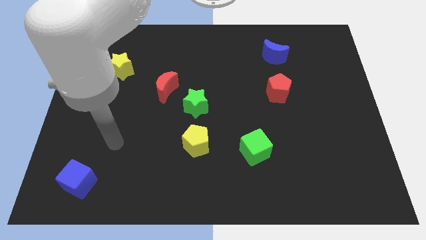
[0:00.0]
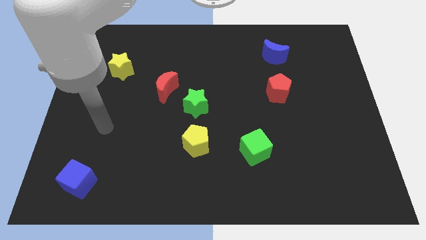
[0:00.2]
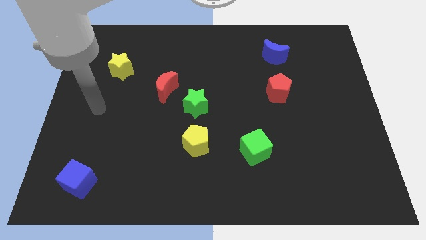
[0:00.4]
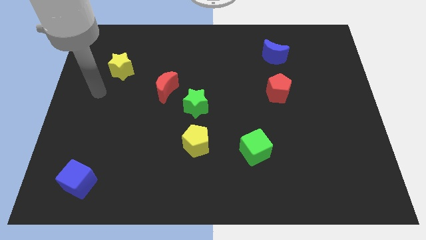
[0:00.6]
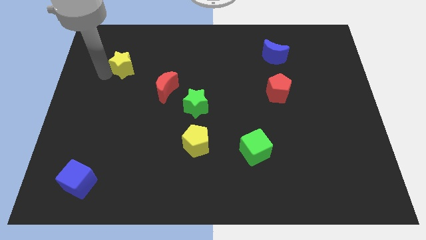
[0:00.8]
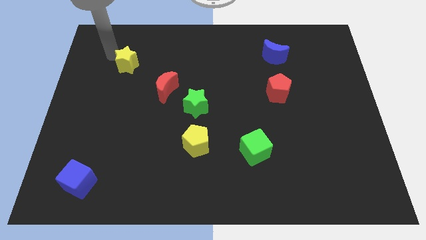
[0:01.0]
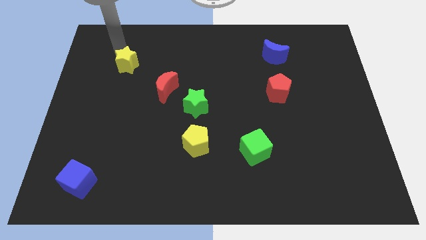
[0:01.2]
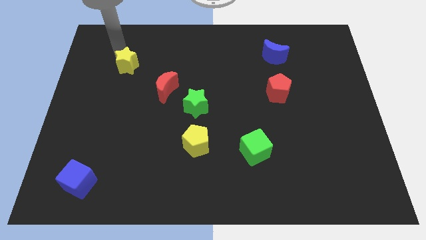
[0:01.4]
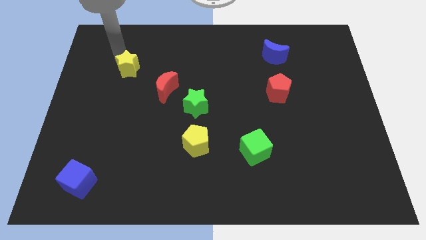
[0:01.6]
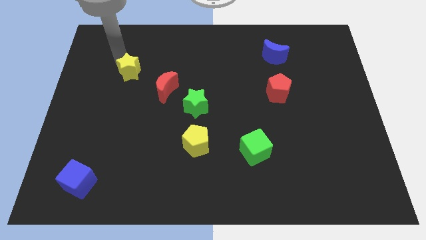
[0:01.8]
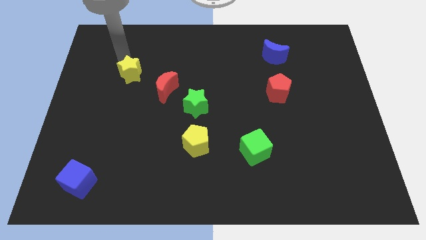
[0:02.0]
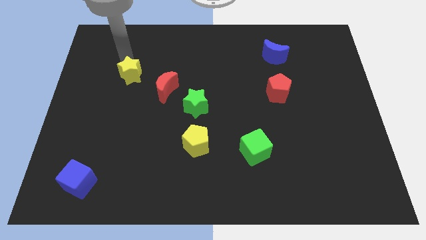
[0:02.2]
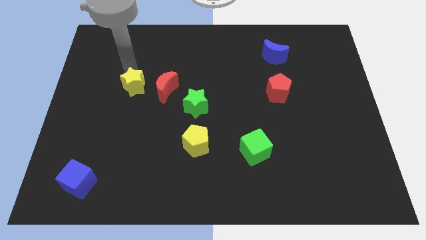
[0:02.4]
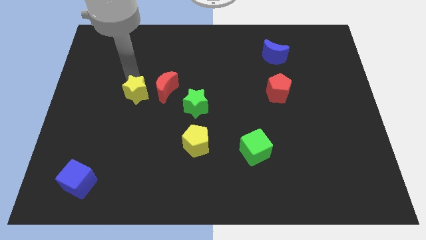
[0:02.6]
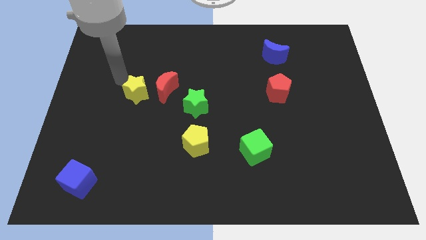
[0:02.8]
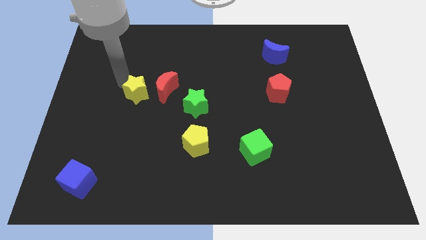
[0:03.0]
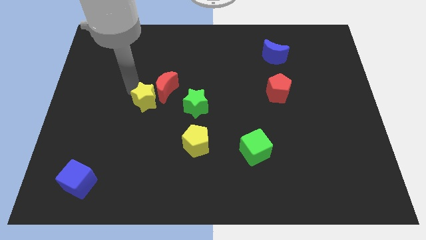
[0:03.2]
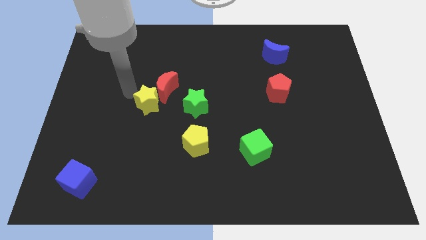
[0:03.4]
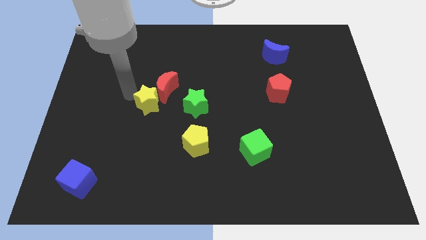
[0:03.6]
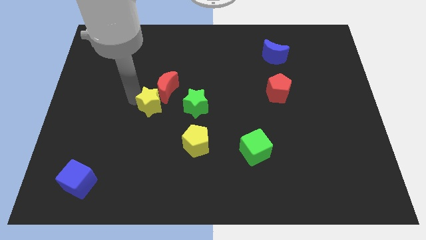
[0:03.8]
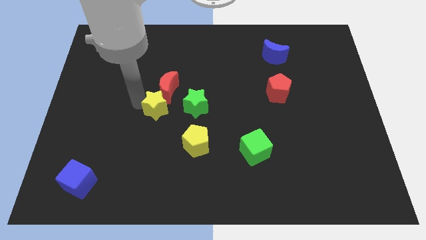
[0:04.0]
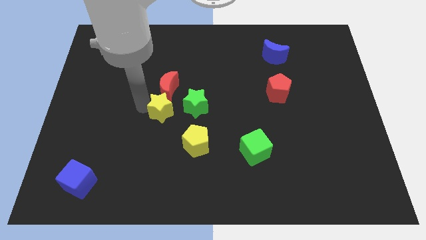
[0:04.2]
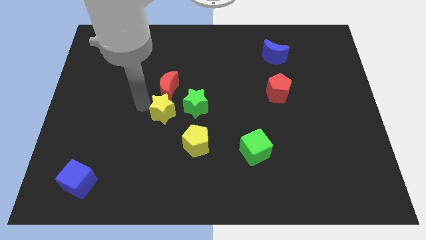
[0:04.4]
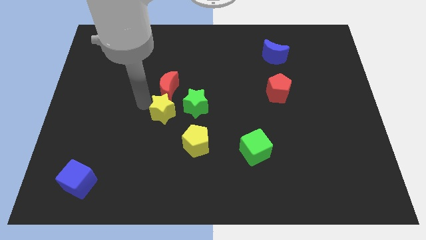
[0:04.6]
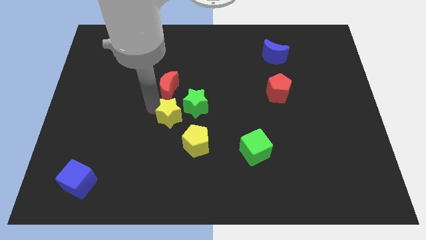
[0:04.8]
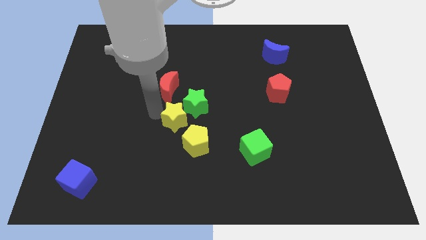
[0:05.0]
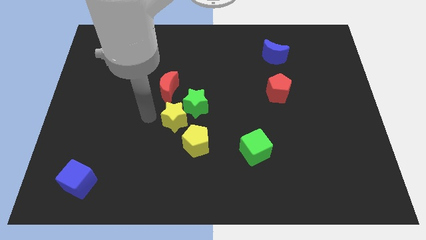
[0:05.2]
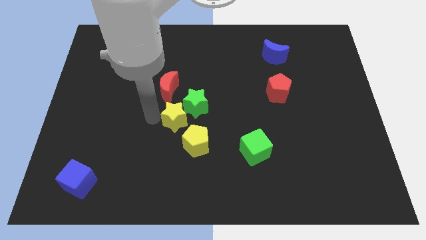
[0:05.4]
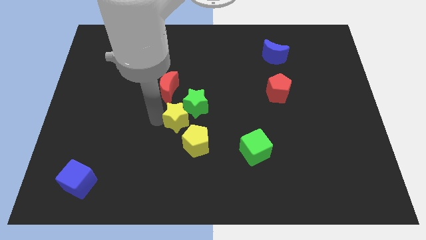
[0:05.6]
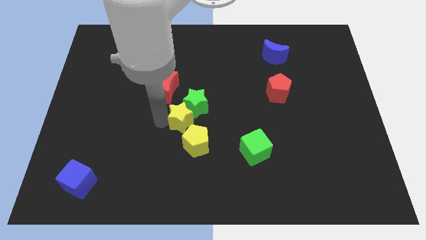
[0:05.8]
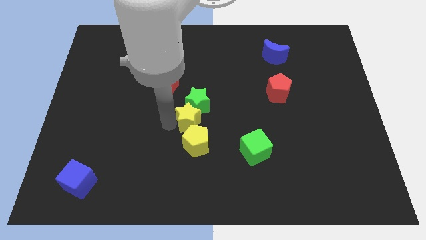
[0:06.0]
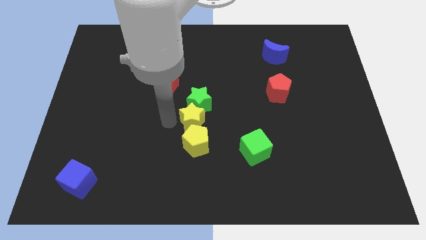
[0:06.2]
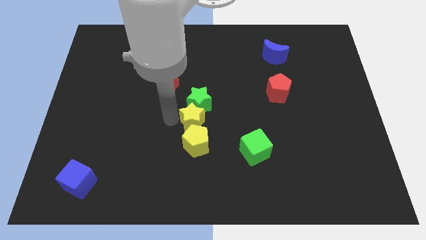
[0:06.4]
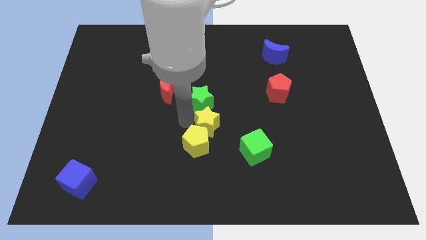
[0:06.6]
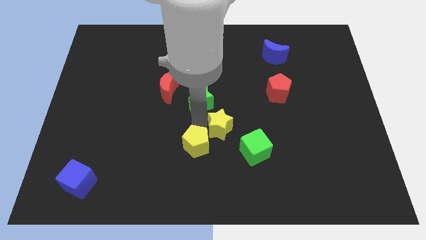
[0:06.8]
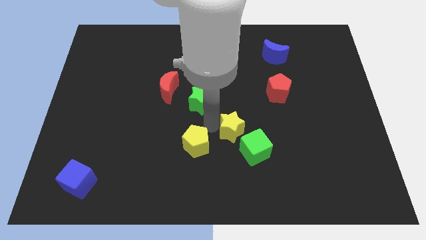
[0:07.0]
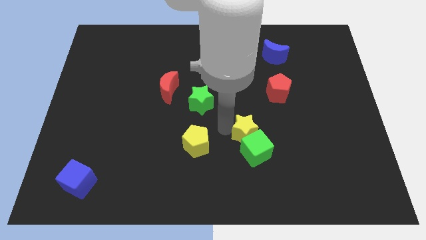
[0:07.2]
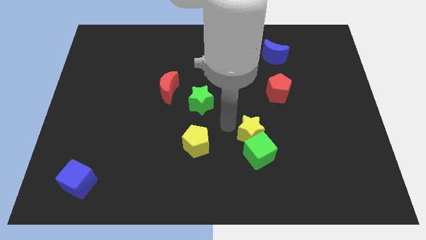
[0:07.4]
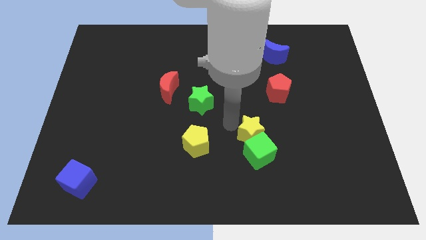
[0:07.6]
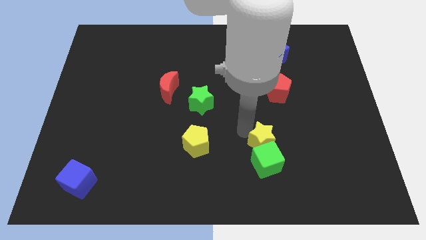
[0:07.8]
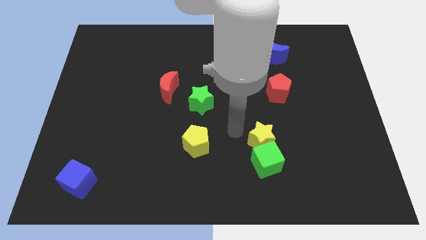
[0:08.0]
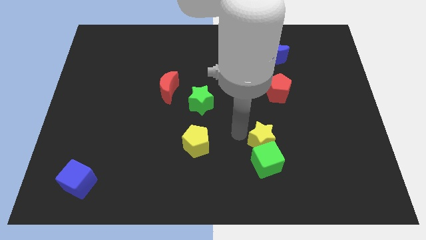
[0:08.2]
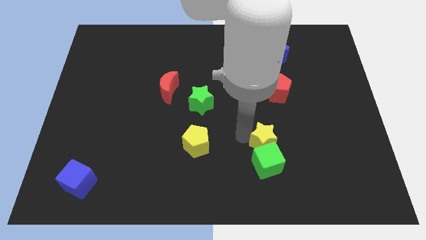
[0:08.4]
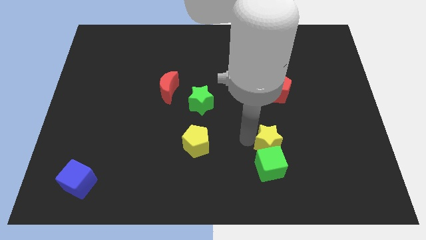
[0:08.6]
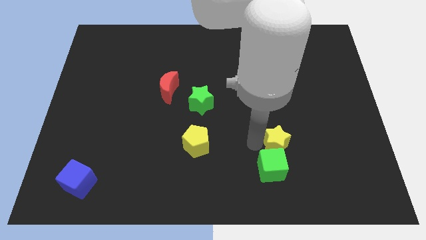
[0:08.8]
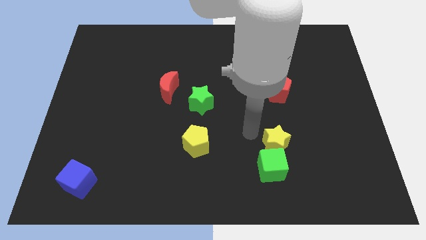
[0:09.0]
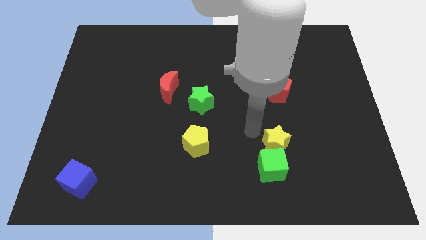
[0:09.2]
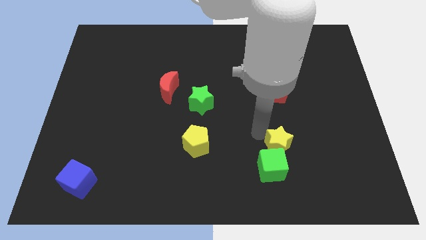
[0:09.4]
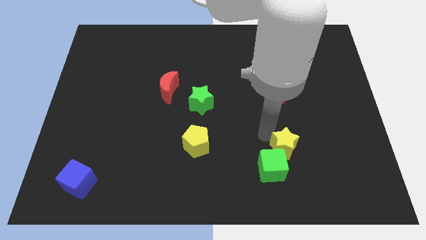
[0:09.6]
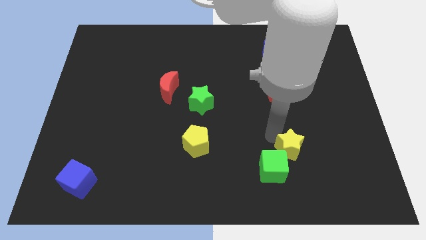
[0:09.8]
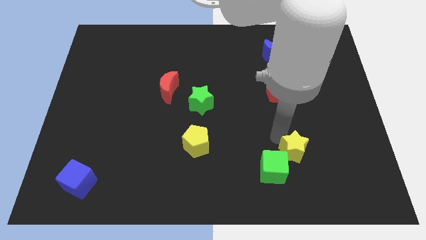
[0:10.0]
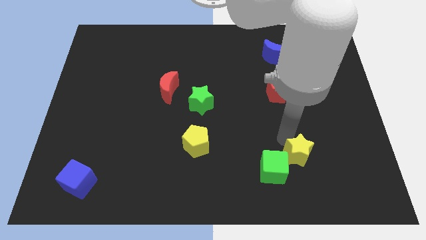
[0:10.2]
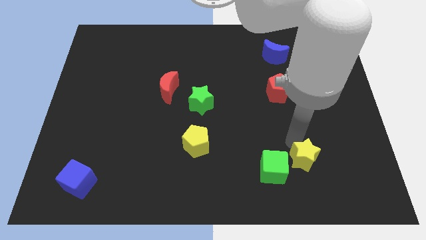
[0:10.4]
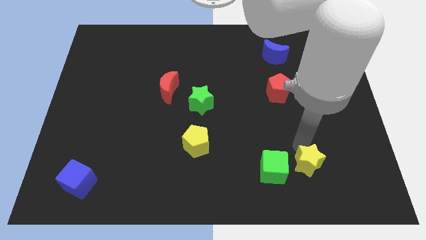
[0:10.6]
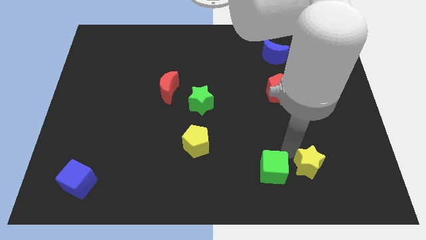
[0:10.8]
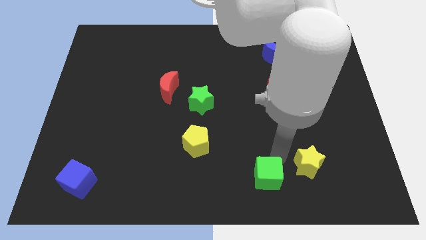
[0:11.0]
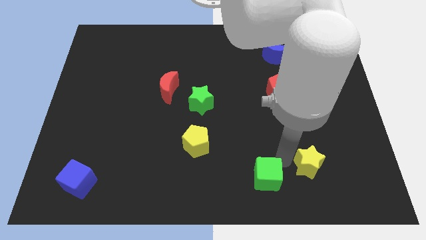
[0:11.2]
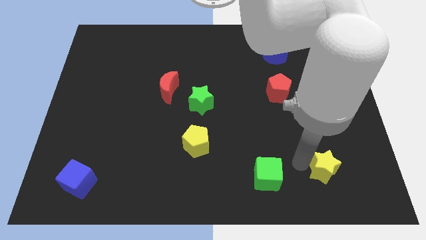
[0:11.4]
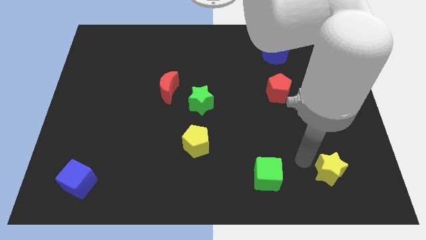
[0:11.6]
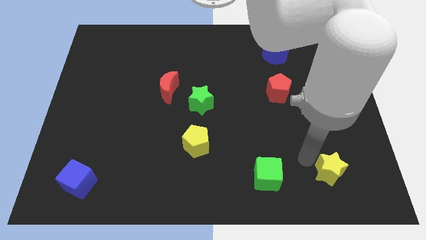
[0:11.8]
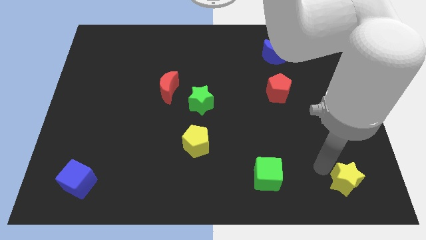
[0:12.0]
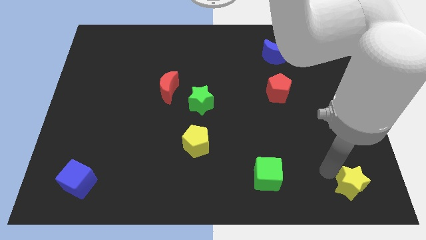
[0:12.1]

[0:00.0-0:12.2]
push the yellow star to the bottom right
